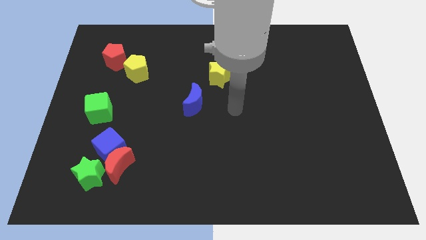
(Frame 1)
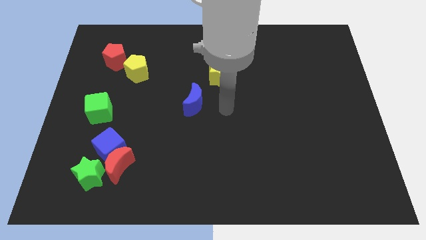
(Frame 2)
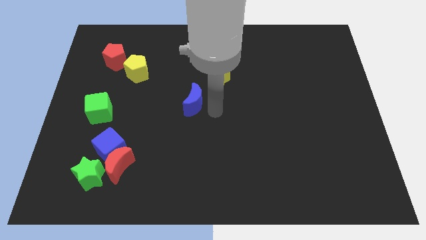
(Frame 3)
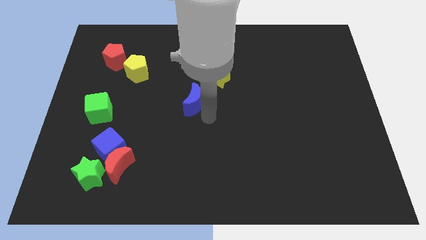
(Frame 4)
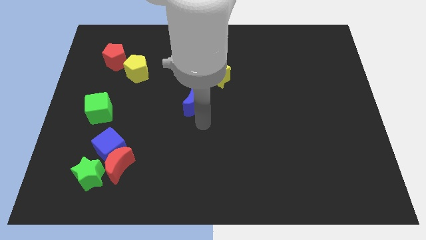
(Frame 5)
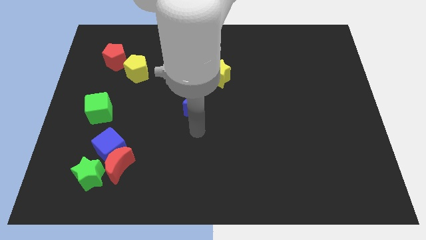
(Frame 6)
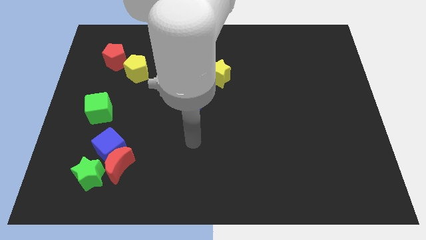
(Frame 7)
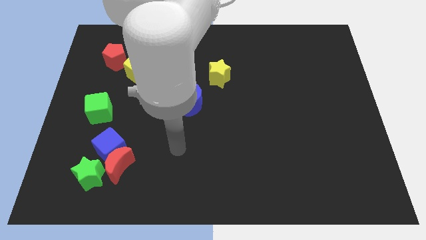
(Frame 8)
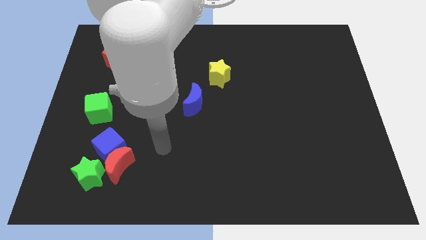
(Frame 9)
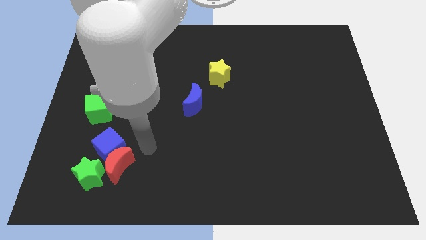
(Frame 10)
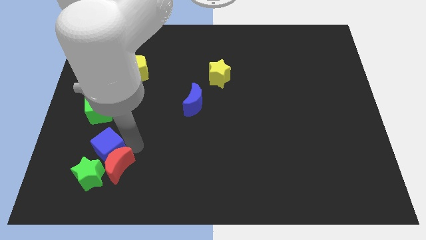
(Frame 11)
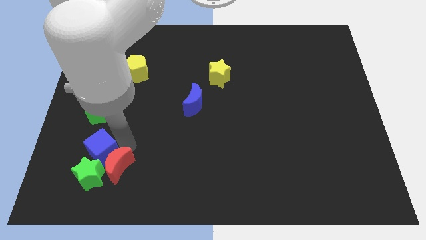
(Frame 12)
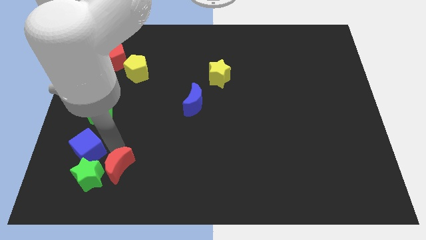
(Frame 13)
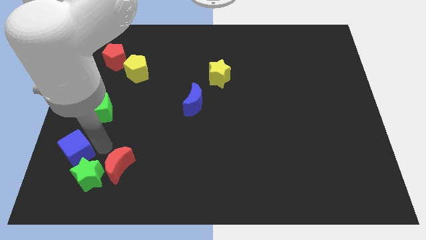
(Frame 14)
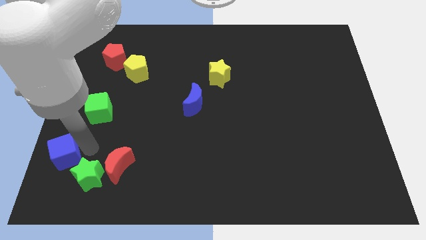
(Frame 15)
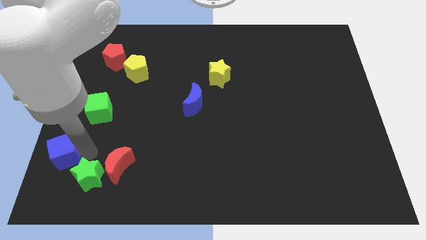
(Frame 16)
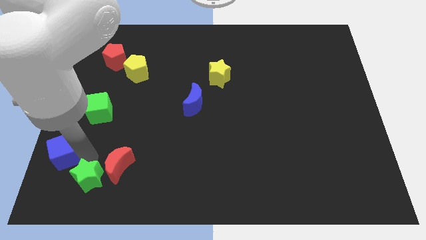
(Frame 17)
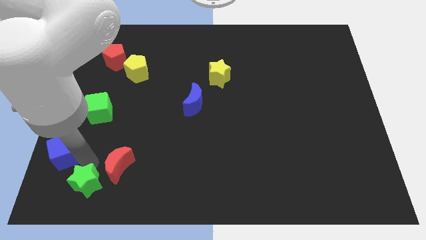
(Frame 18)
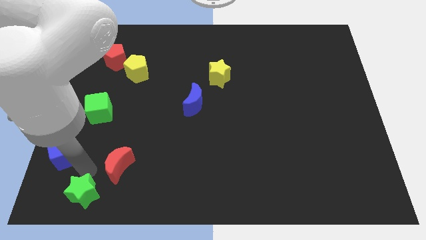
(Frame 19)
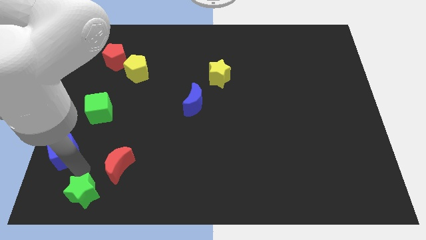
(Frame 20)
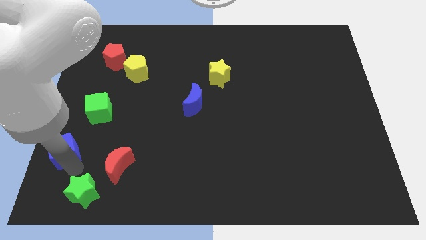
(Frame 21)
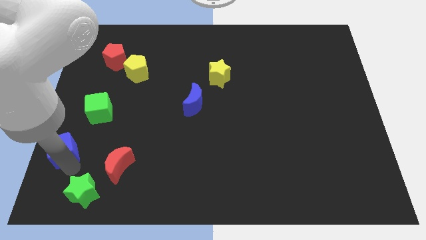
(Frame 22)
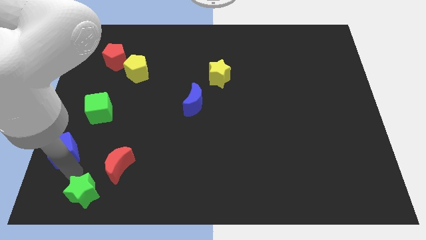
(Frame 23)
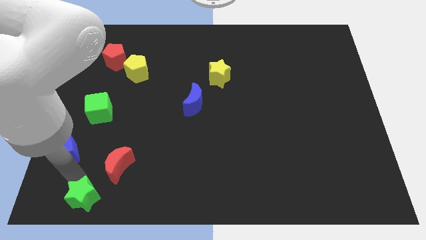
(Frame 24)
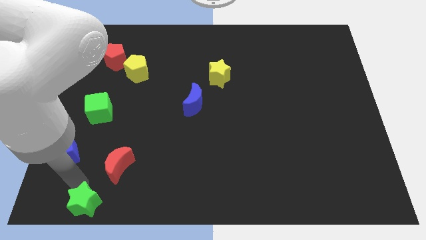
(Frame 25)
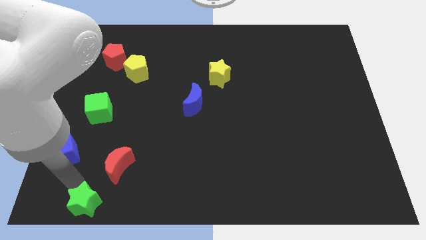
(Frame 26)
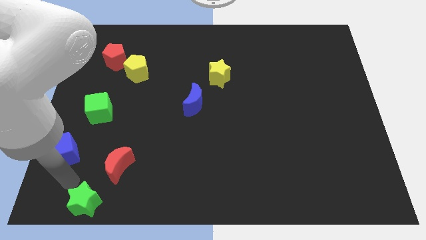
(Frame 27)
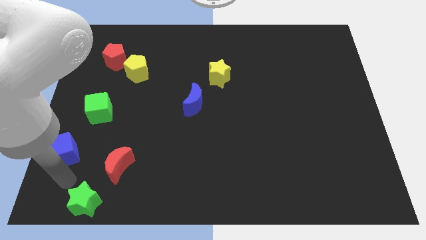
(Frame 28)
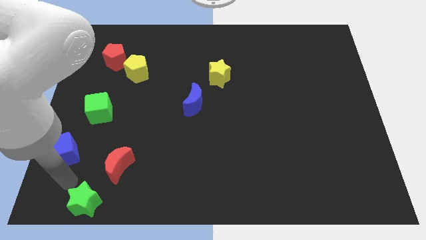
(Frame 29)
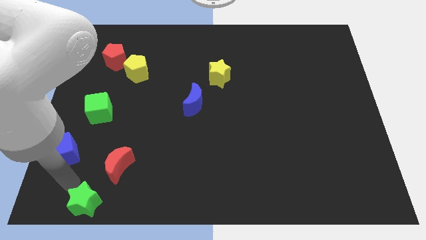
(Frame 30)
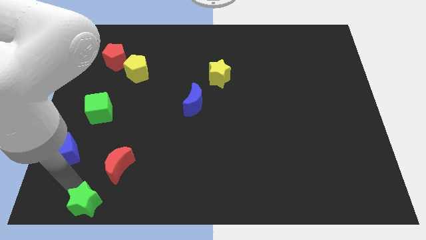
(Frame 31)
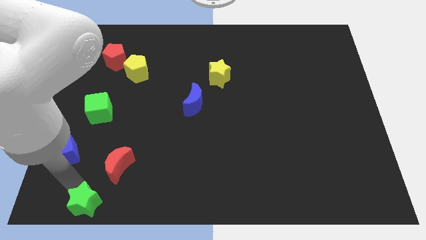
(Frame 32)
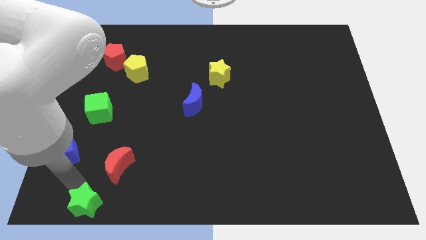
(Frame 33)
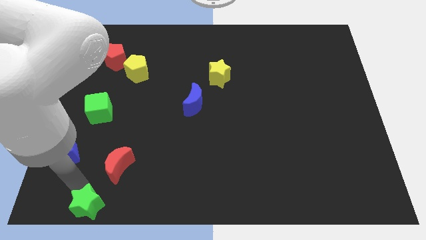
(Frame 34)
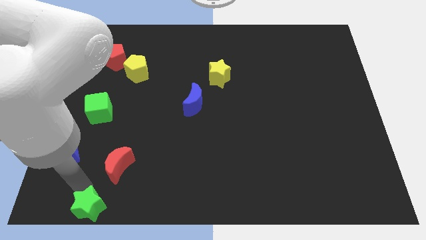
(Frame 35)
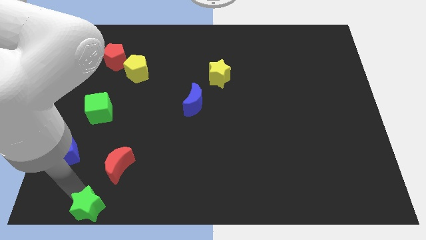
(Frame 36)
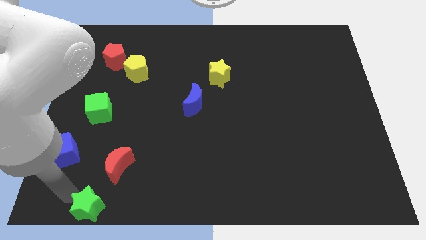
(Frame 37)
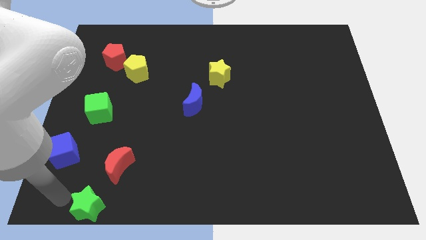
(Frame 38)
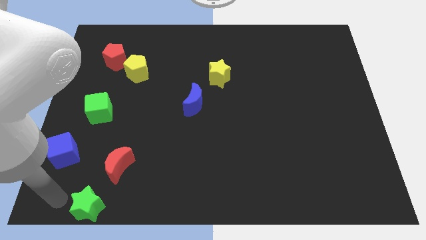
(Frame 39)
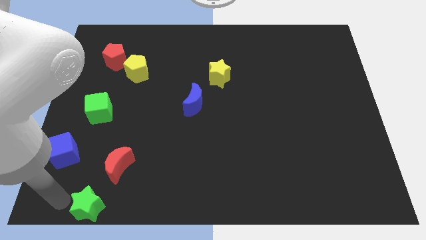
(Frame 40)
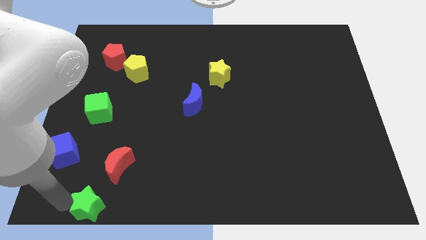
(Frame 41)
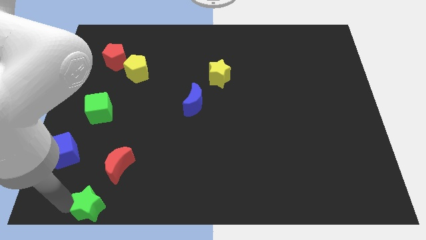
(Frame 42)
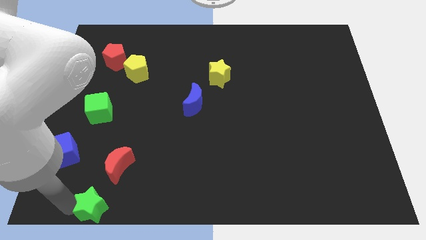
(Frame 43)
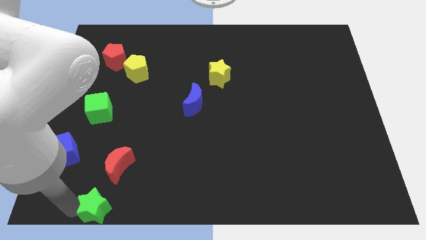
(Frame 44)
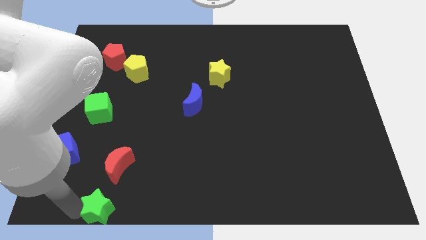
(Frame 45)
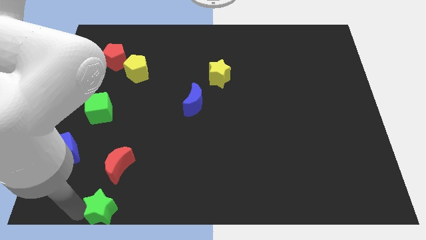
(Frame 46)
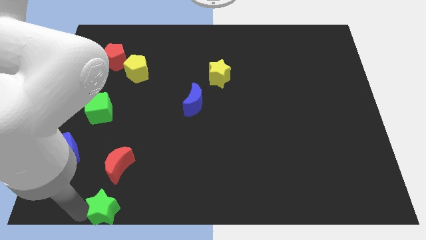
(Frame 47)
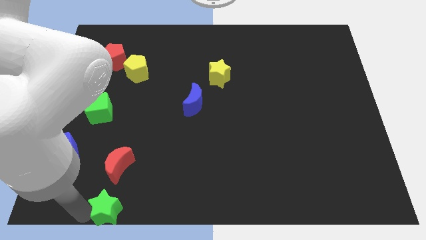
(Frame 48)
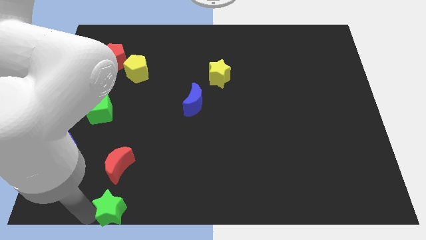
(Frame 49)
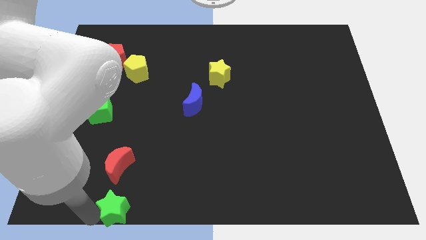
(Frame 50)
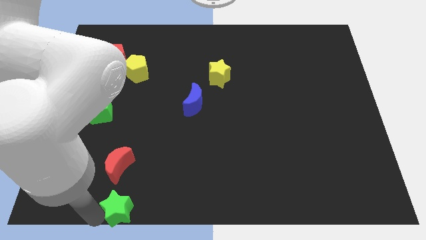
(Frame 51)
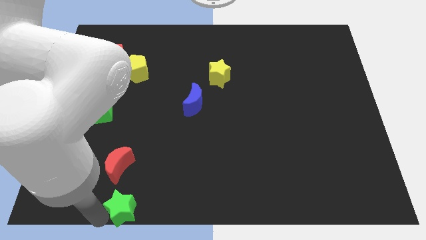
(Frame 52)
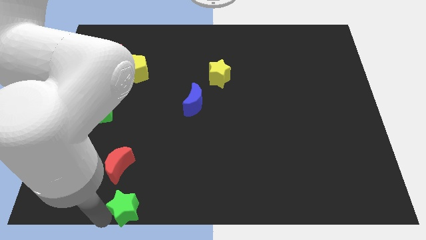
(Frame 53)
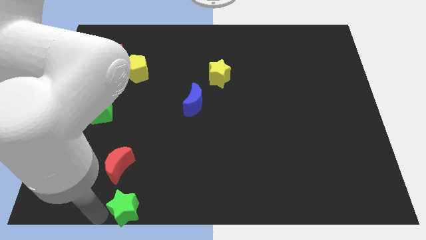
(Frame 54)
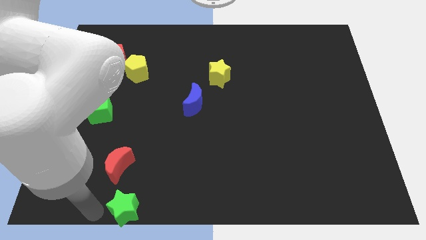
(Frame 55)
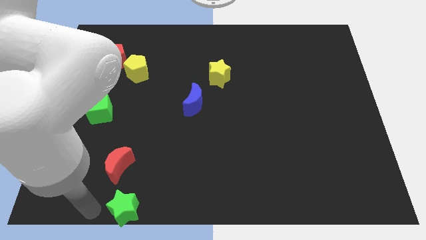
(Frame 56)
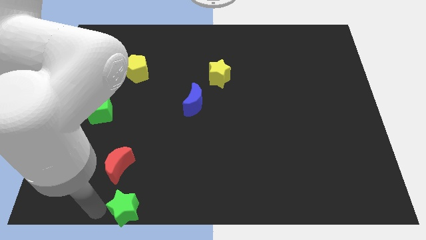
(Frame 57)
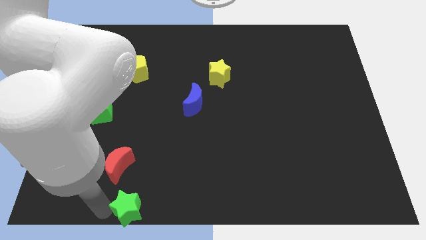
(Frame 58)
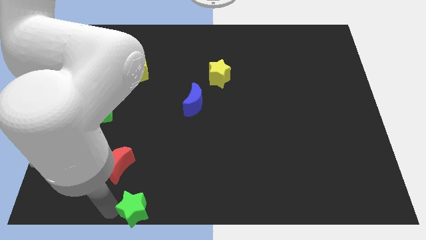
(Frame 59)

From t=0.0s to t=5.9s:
slide the green star somewhat right

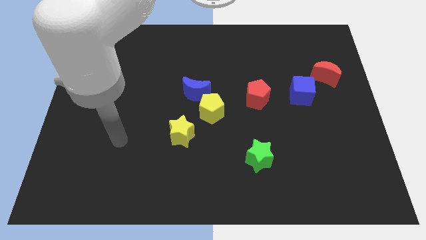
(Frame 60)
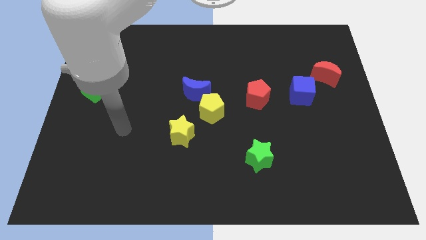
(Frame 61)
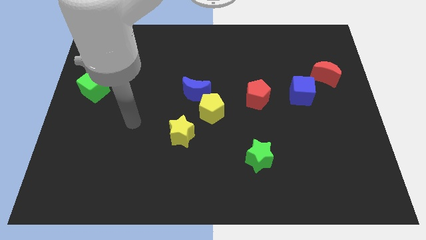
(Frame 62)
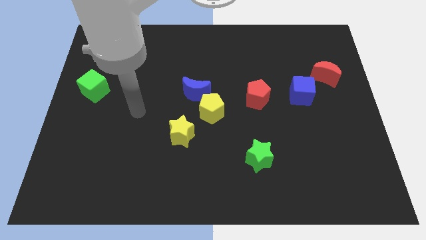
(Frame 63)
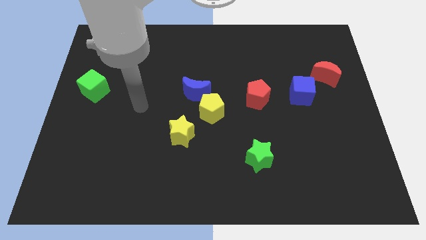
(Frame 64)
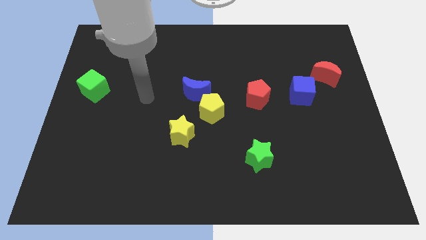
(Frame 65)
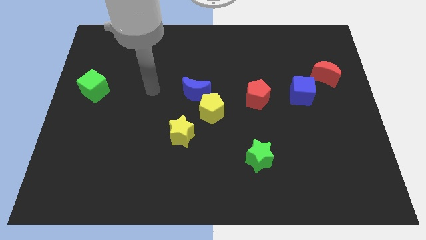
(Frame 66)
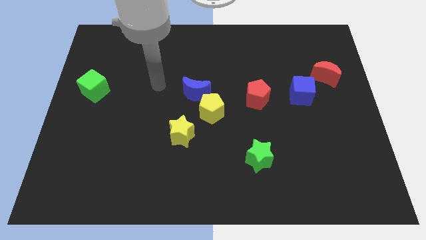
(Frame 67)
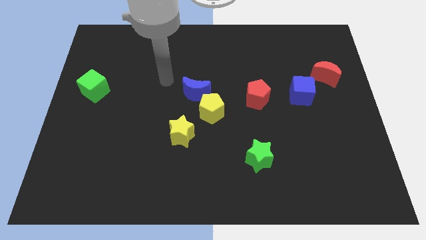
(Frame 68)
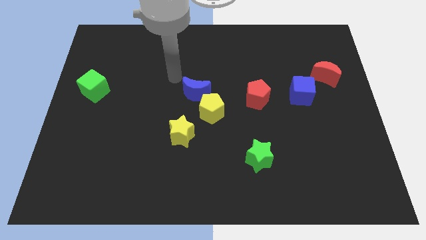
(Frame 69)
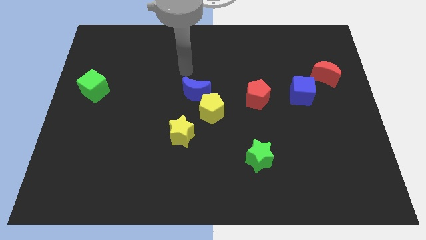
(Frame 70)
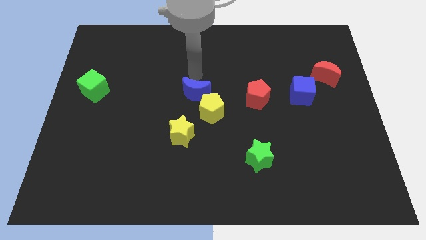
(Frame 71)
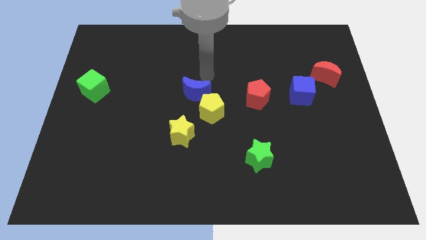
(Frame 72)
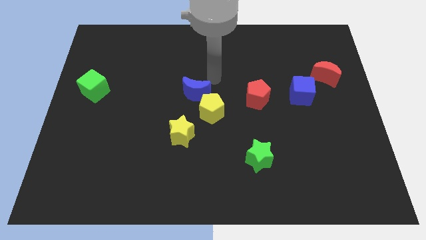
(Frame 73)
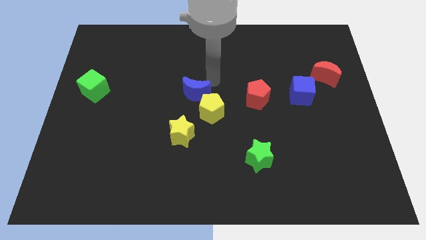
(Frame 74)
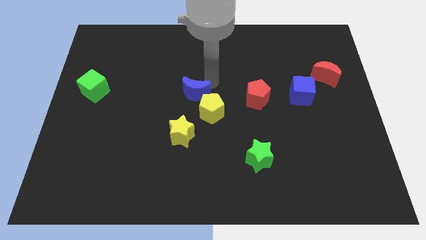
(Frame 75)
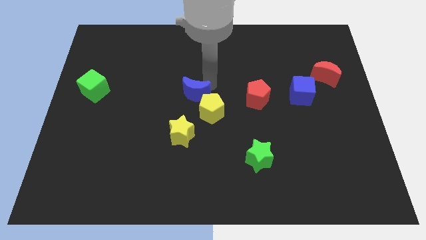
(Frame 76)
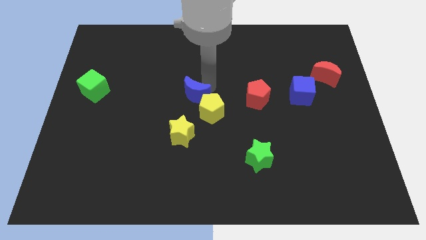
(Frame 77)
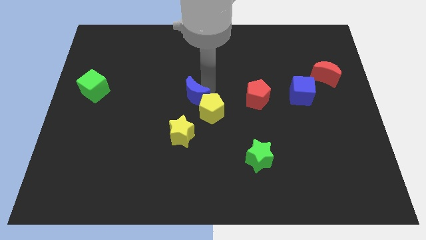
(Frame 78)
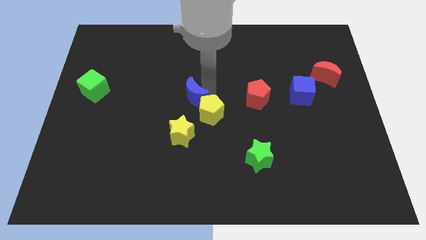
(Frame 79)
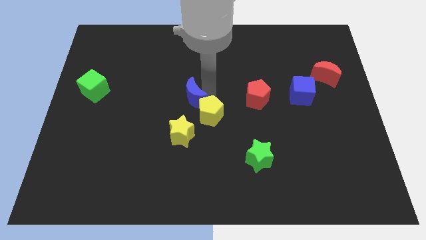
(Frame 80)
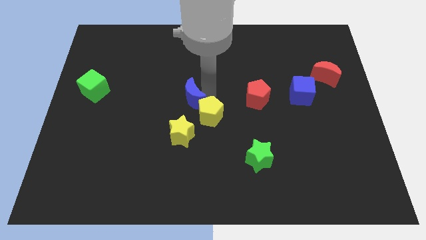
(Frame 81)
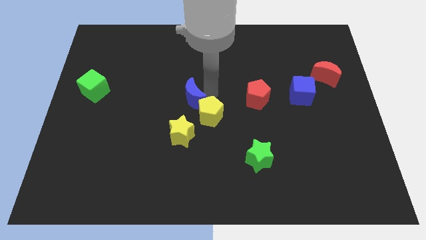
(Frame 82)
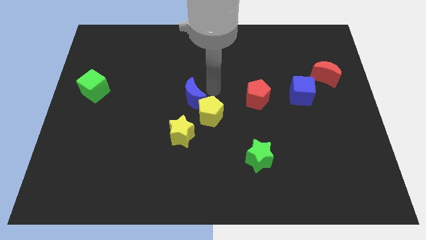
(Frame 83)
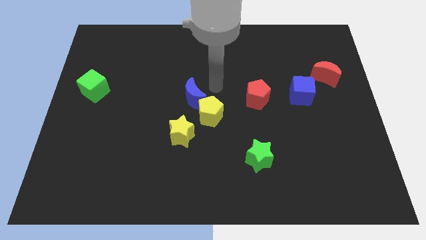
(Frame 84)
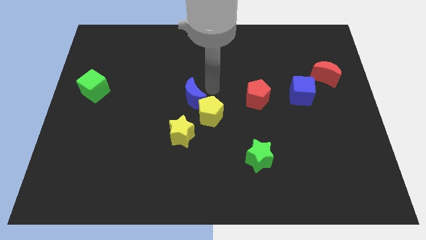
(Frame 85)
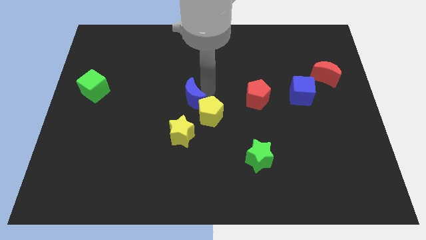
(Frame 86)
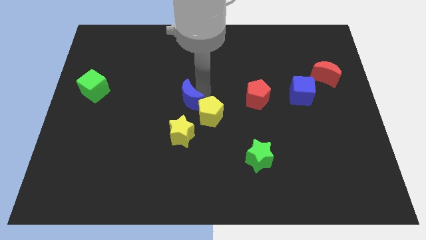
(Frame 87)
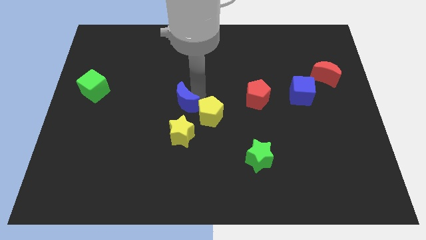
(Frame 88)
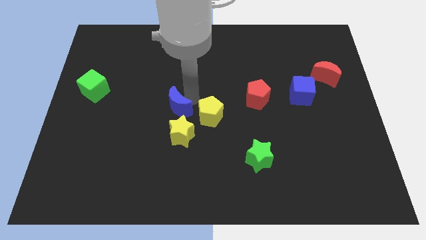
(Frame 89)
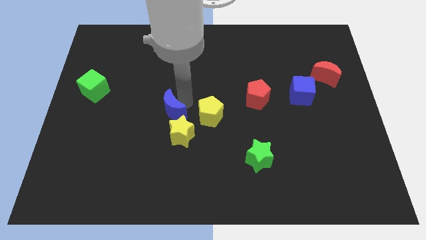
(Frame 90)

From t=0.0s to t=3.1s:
slightly move the blue moon down and to the left diagonally
